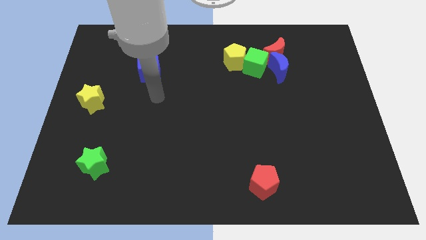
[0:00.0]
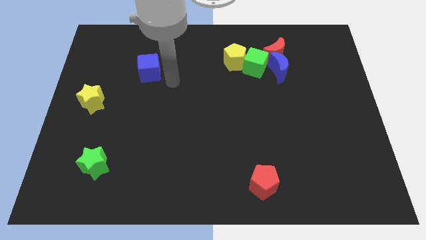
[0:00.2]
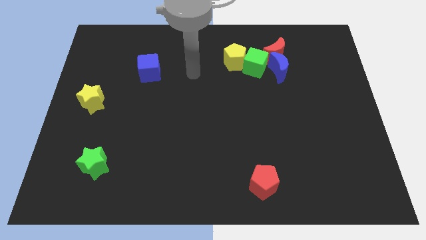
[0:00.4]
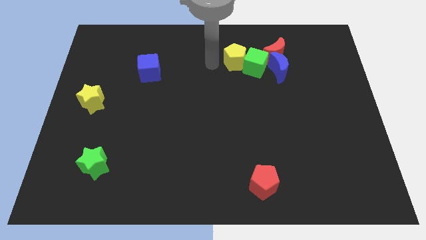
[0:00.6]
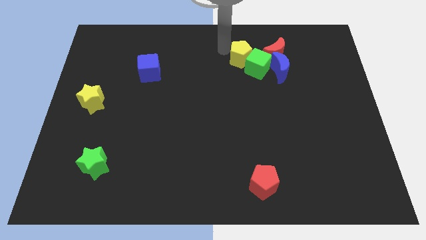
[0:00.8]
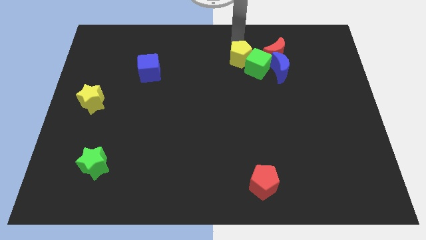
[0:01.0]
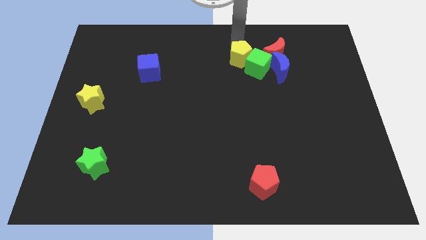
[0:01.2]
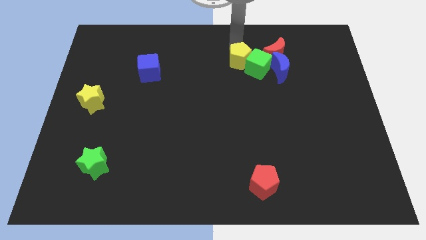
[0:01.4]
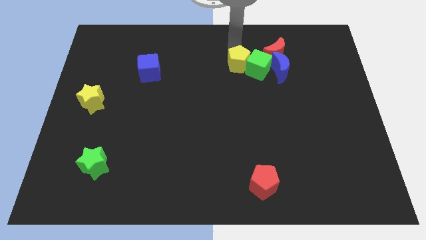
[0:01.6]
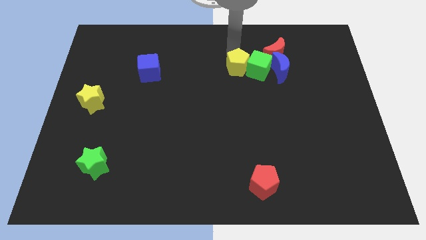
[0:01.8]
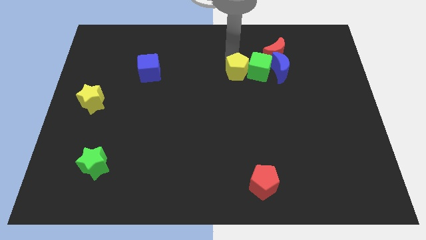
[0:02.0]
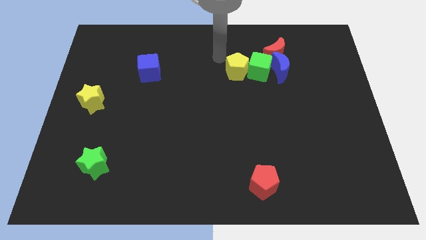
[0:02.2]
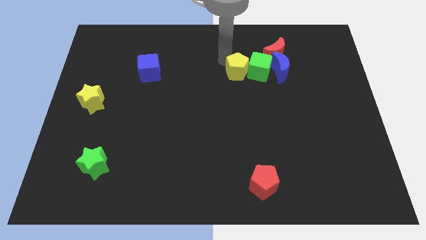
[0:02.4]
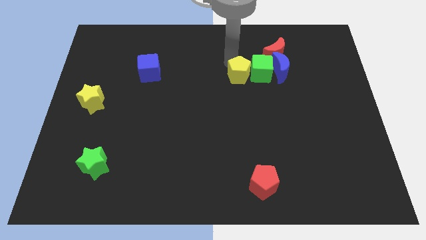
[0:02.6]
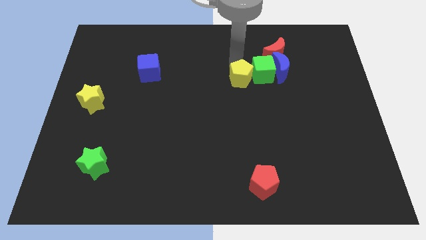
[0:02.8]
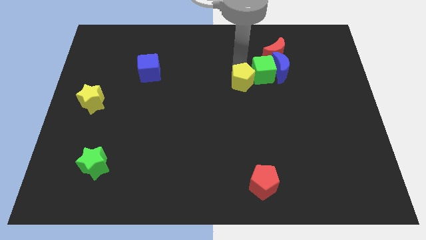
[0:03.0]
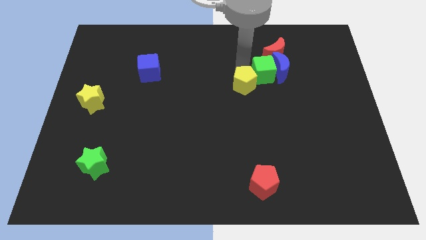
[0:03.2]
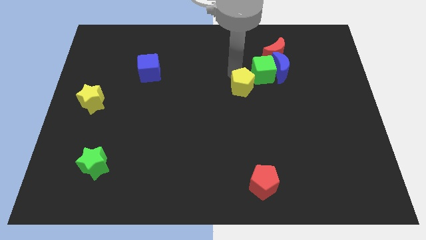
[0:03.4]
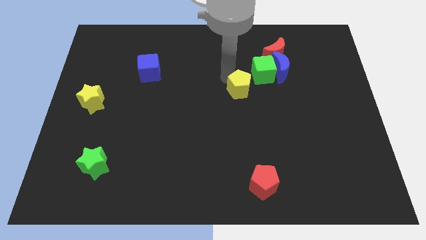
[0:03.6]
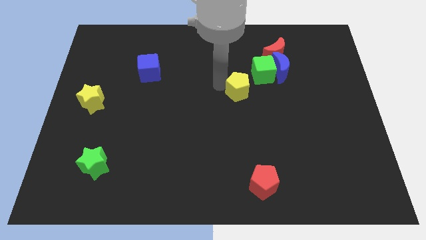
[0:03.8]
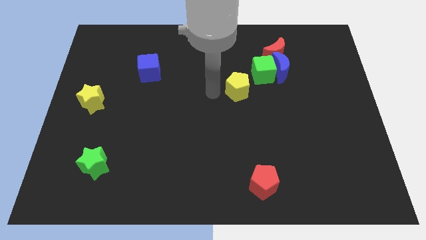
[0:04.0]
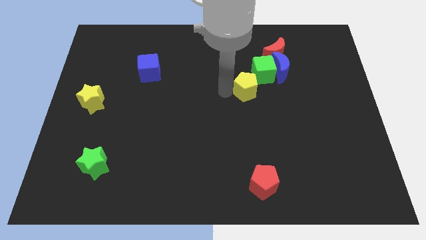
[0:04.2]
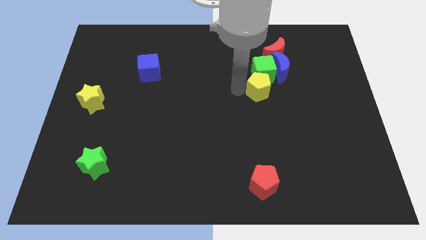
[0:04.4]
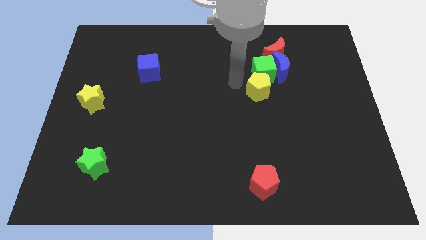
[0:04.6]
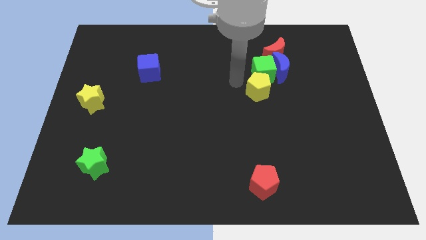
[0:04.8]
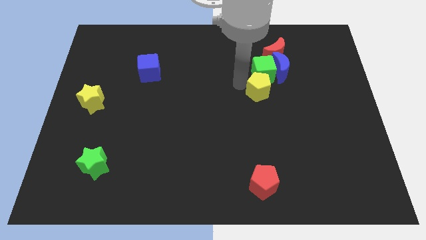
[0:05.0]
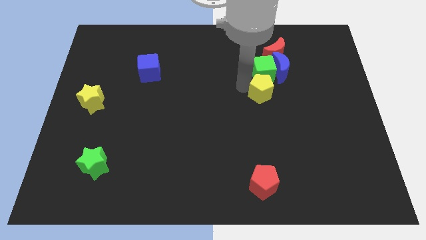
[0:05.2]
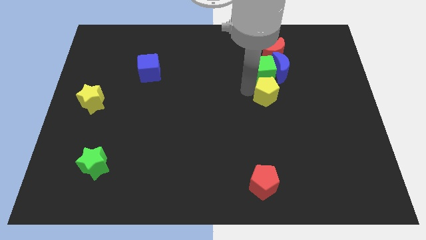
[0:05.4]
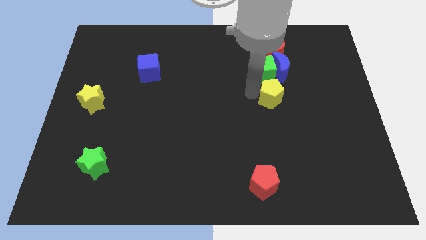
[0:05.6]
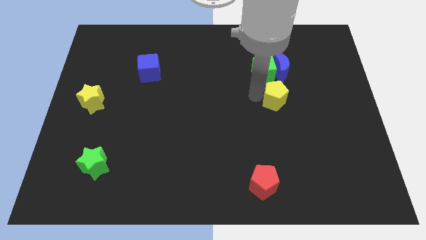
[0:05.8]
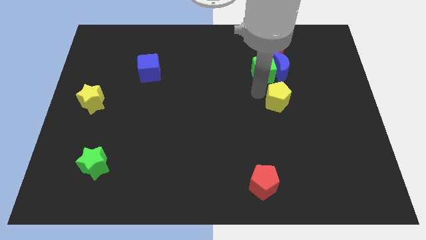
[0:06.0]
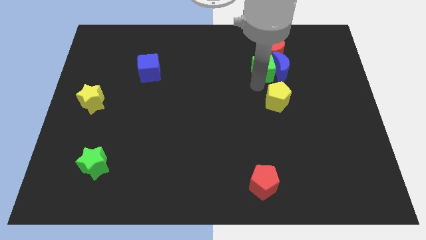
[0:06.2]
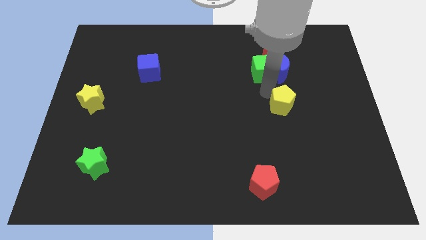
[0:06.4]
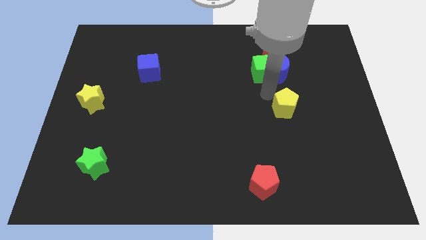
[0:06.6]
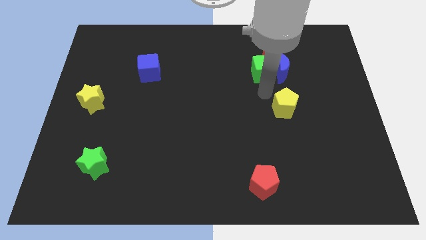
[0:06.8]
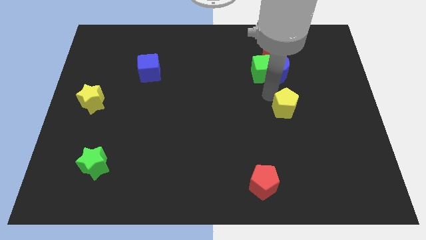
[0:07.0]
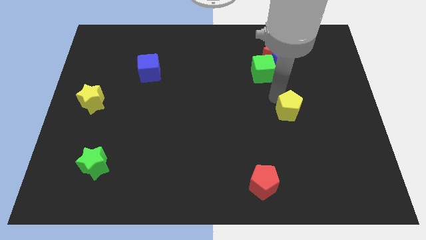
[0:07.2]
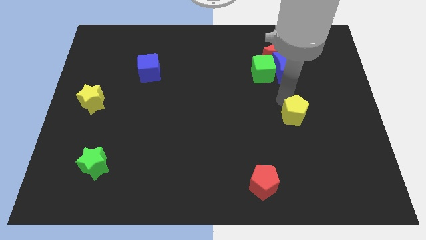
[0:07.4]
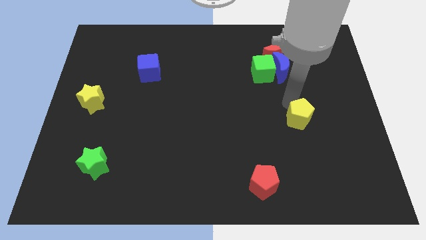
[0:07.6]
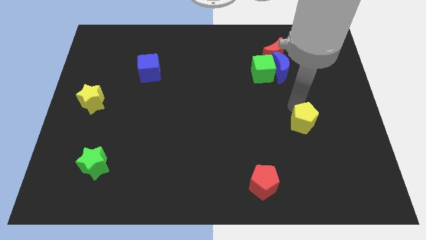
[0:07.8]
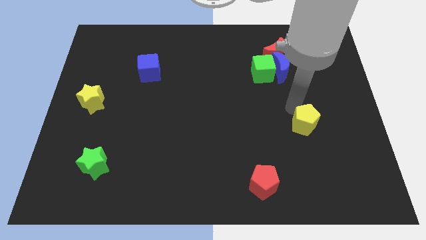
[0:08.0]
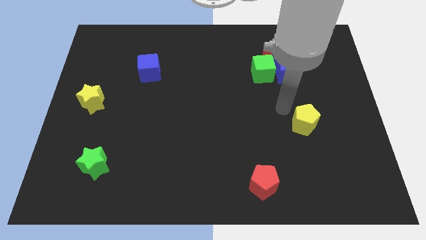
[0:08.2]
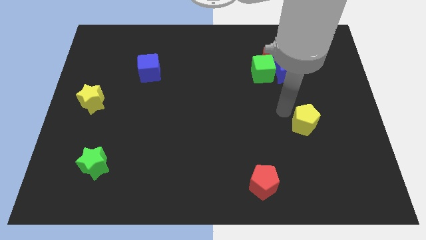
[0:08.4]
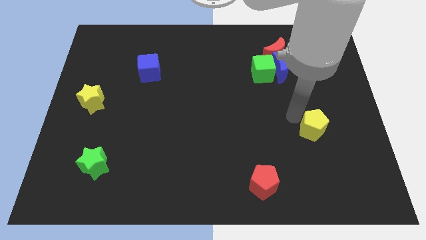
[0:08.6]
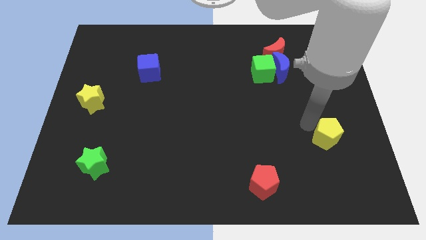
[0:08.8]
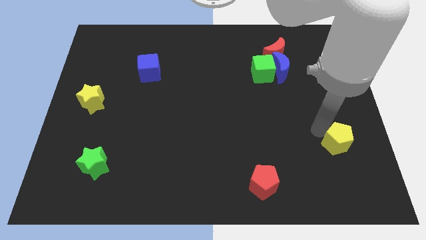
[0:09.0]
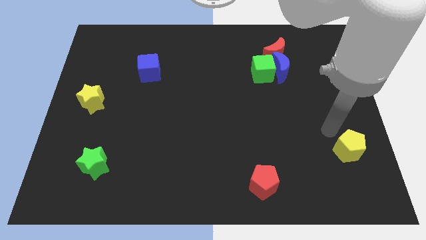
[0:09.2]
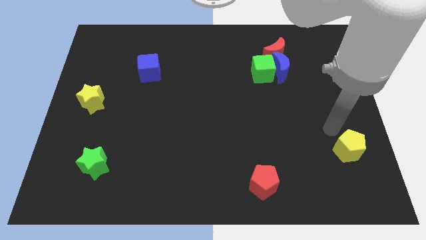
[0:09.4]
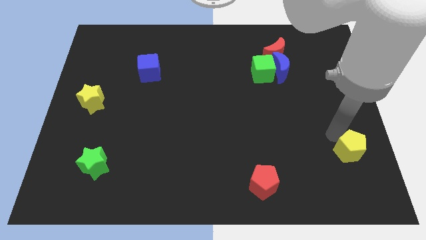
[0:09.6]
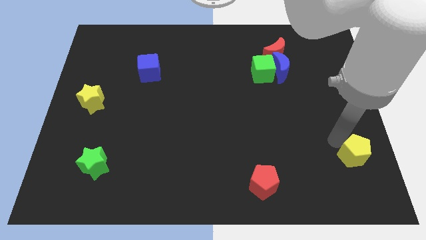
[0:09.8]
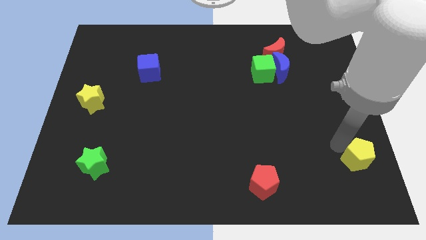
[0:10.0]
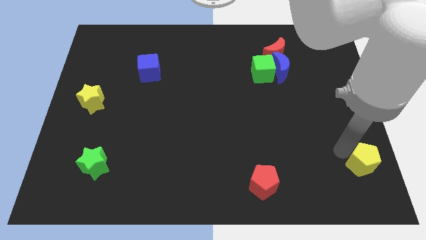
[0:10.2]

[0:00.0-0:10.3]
put the yellow pentagon to the bottom right

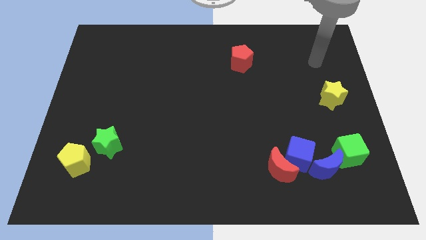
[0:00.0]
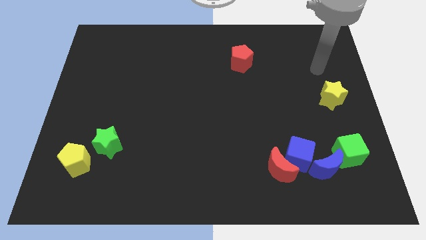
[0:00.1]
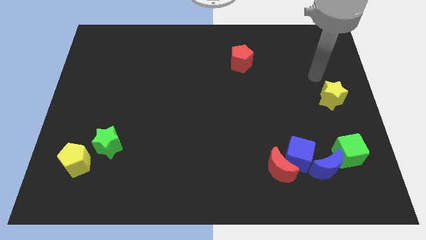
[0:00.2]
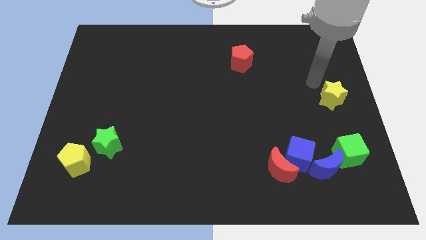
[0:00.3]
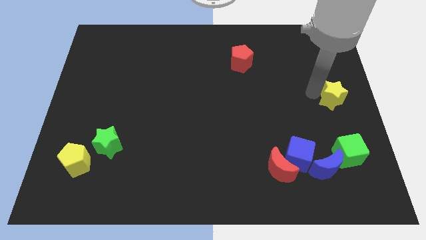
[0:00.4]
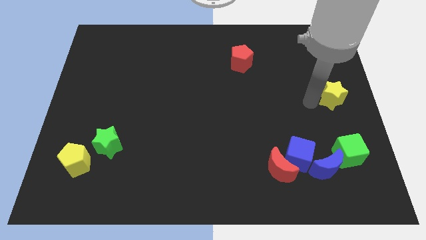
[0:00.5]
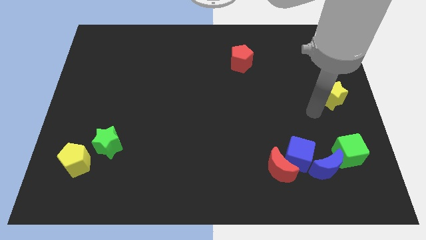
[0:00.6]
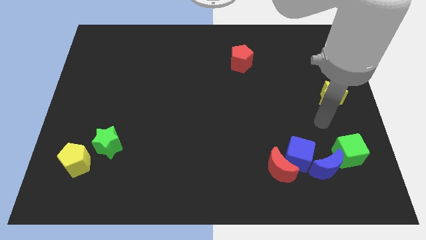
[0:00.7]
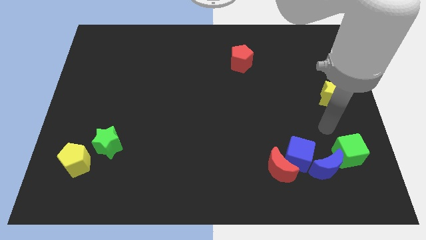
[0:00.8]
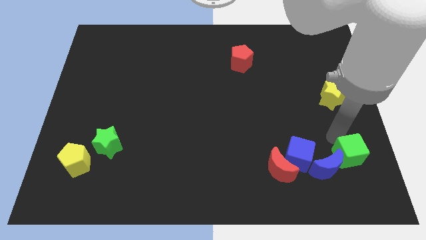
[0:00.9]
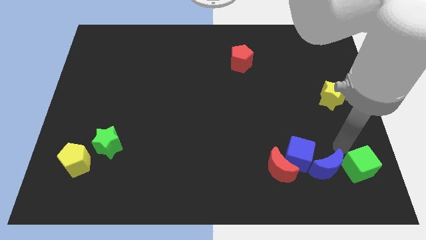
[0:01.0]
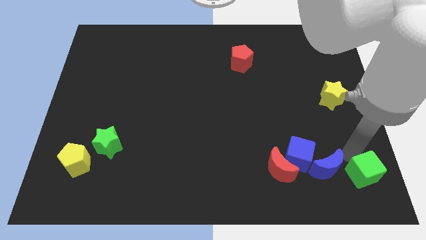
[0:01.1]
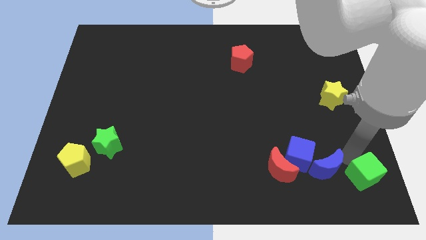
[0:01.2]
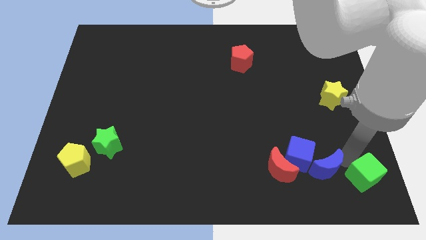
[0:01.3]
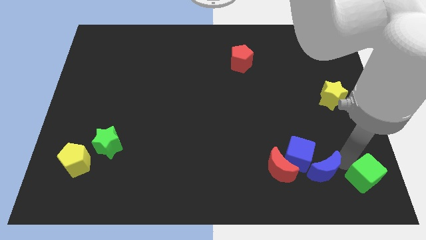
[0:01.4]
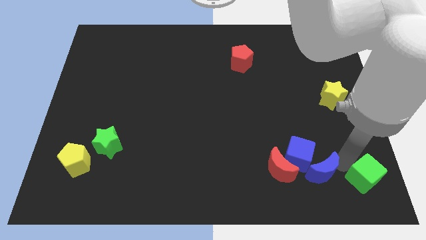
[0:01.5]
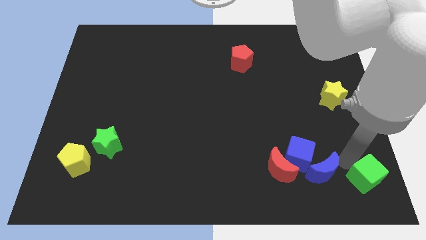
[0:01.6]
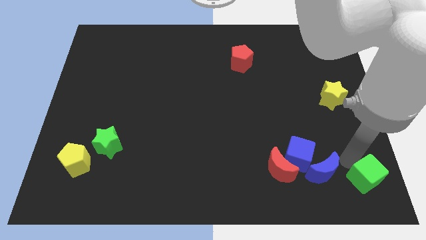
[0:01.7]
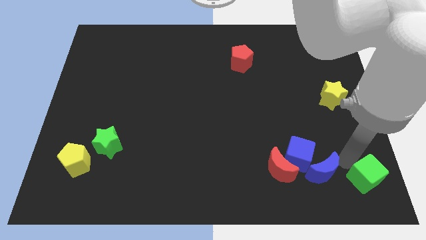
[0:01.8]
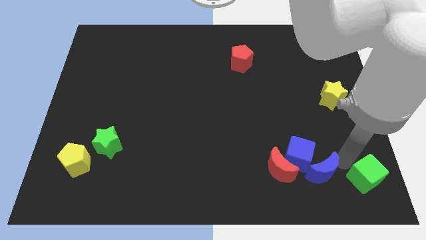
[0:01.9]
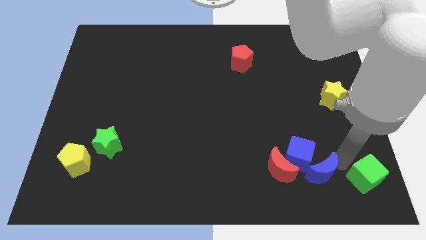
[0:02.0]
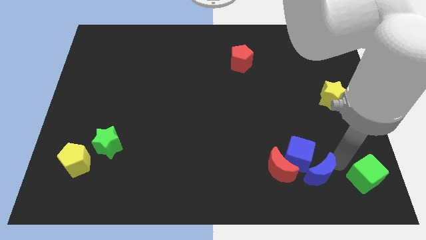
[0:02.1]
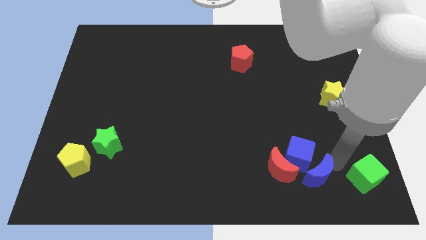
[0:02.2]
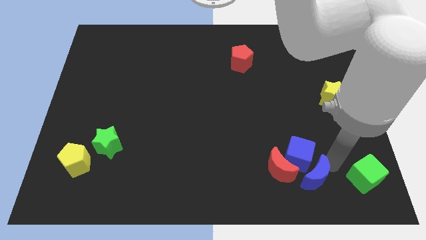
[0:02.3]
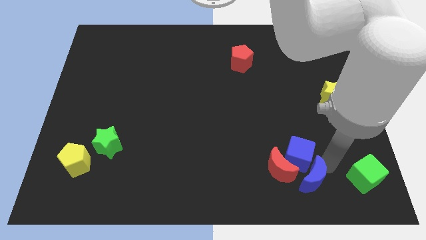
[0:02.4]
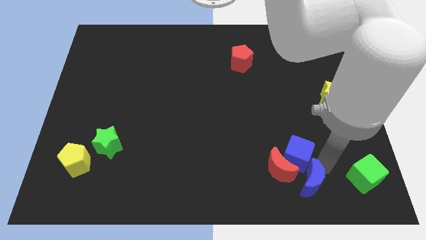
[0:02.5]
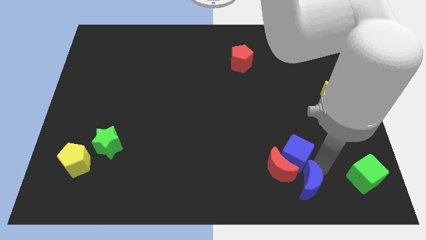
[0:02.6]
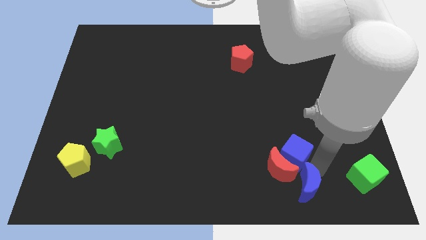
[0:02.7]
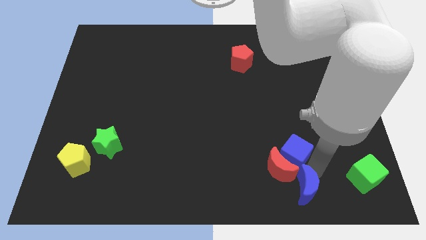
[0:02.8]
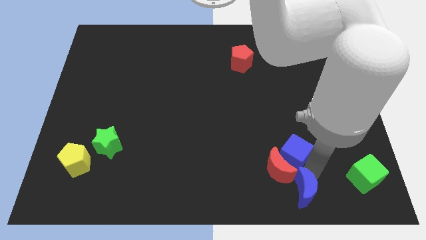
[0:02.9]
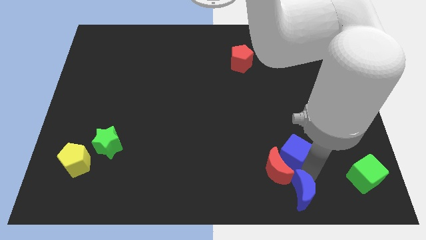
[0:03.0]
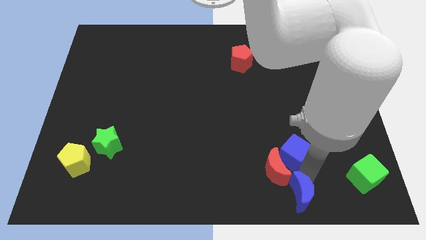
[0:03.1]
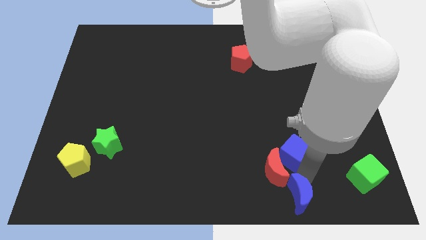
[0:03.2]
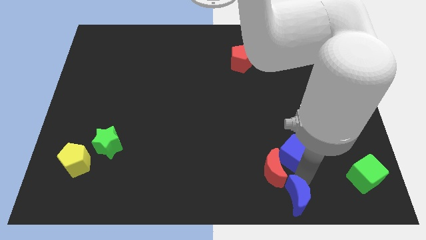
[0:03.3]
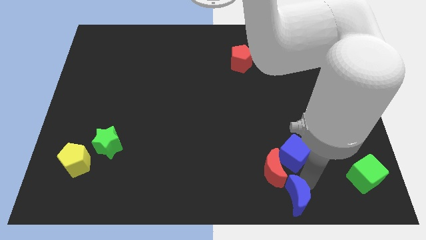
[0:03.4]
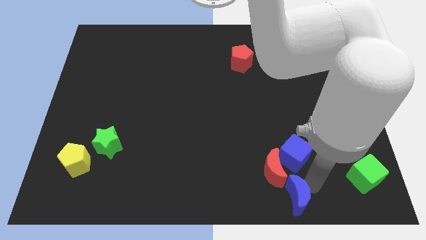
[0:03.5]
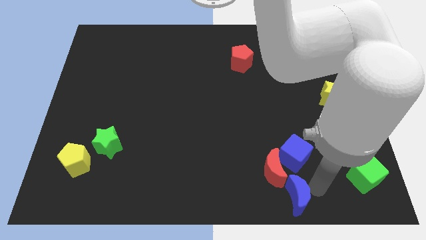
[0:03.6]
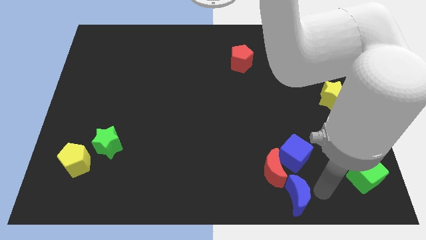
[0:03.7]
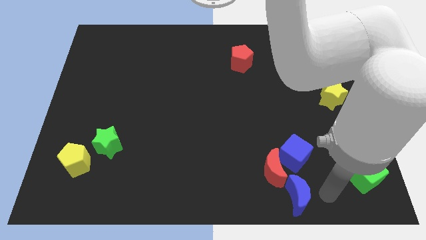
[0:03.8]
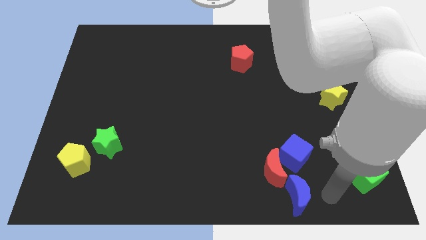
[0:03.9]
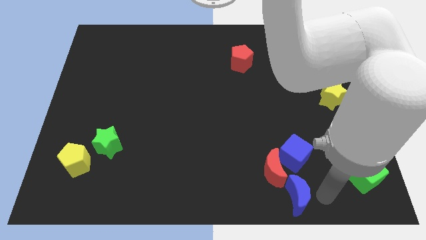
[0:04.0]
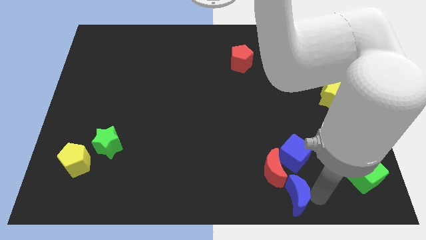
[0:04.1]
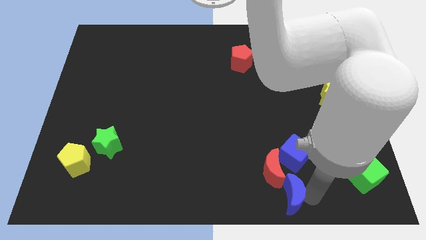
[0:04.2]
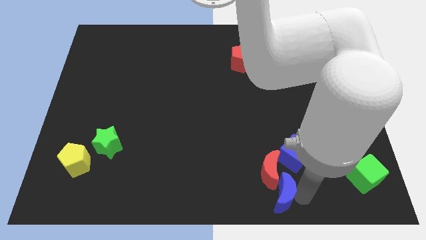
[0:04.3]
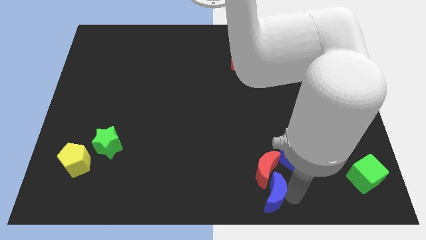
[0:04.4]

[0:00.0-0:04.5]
push the blue moon to the bottom side
